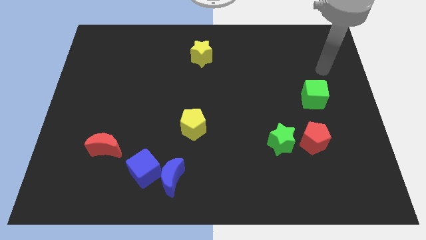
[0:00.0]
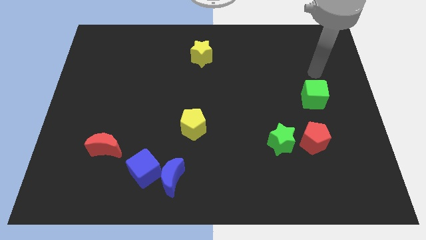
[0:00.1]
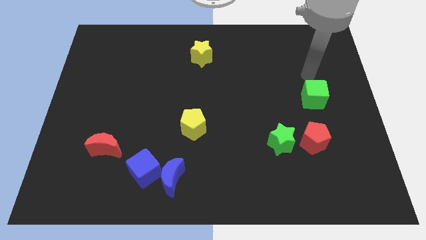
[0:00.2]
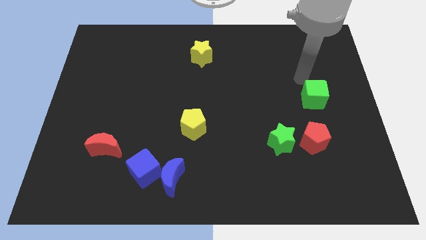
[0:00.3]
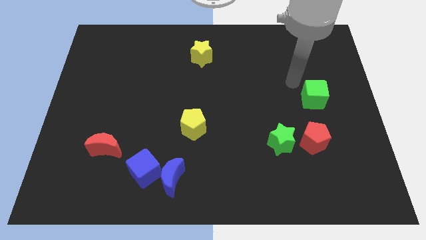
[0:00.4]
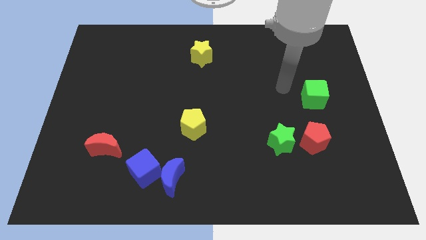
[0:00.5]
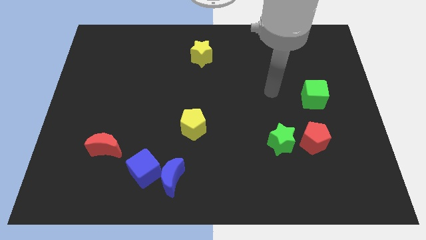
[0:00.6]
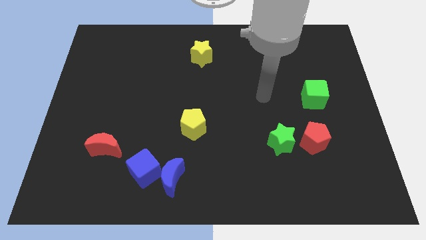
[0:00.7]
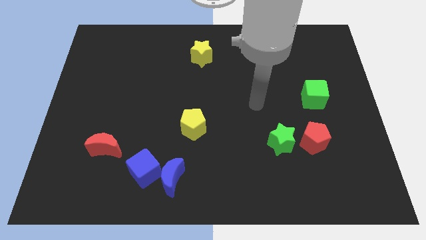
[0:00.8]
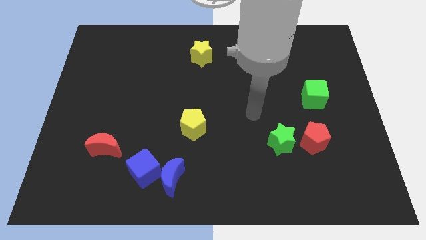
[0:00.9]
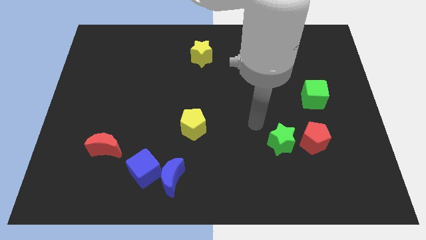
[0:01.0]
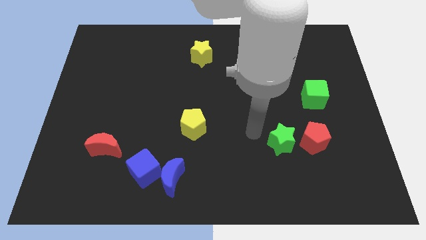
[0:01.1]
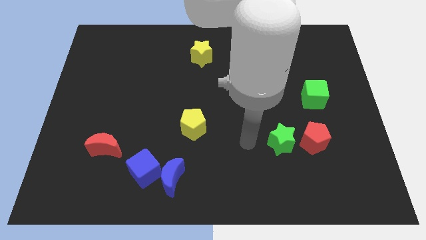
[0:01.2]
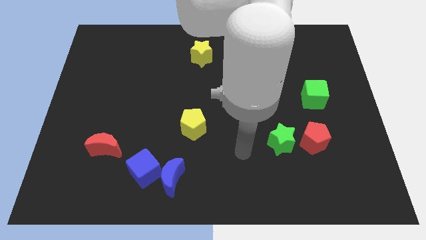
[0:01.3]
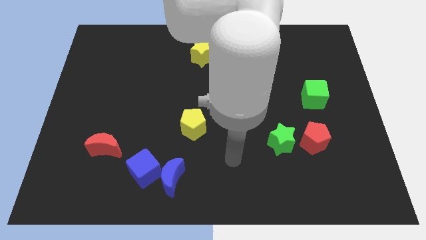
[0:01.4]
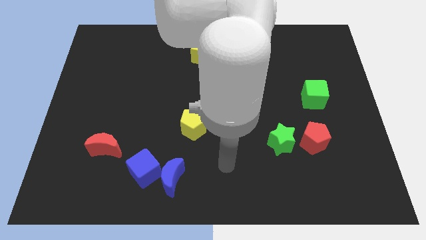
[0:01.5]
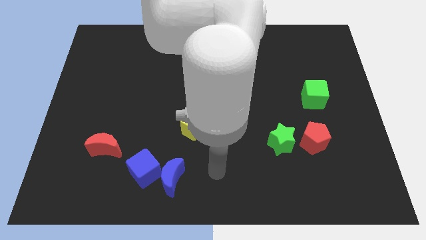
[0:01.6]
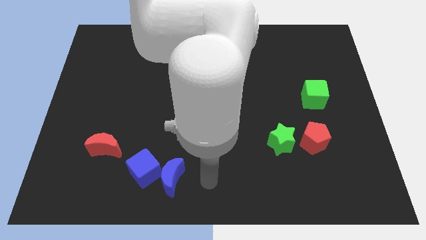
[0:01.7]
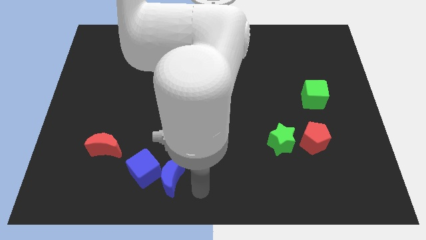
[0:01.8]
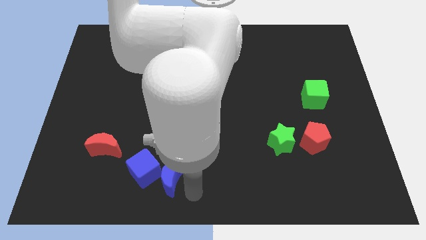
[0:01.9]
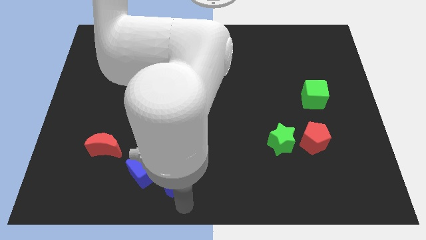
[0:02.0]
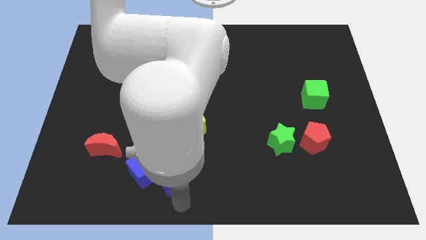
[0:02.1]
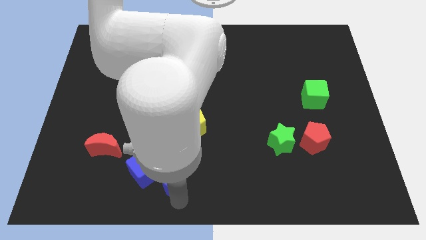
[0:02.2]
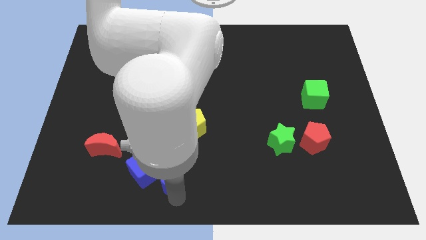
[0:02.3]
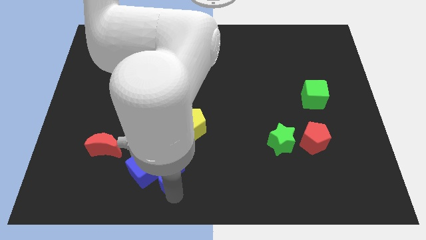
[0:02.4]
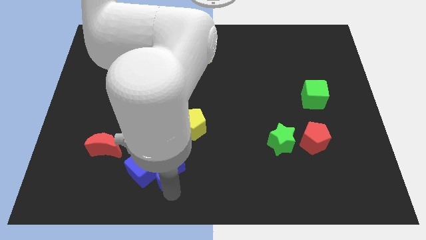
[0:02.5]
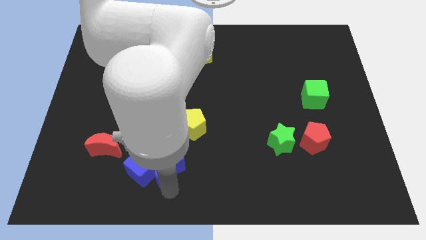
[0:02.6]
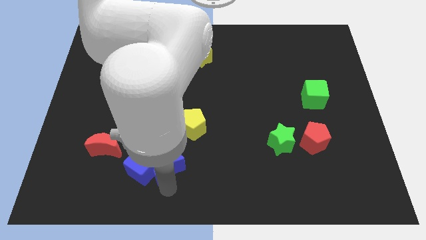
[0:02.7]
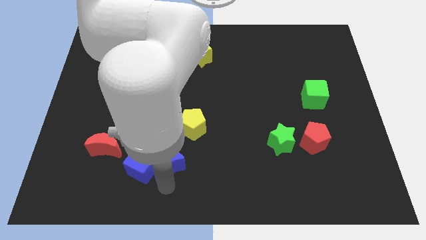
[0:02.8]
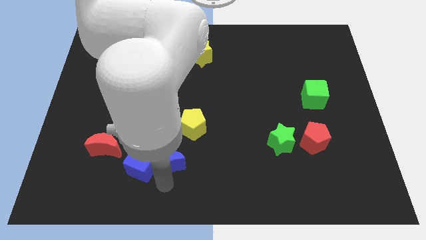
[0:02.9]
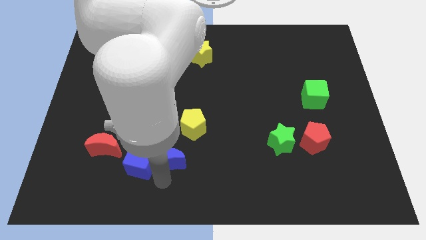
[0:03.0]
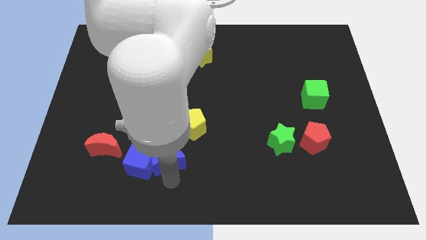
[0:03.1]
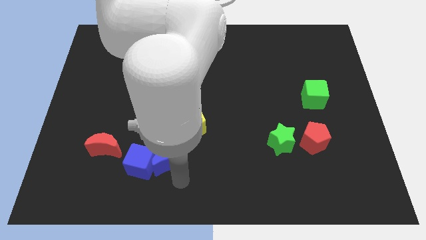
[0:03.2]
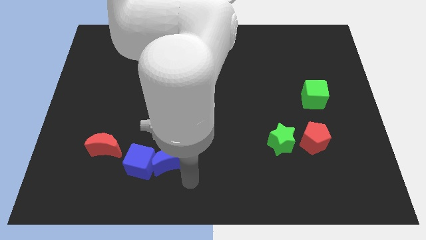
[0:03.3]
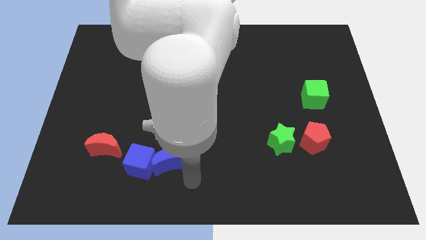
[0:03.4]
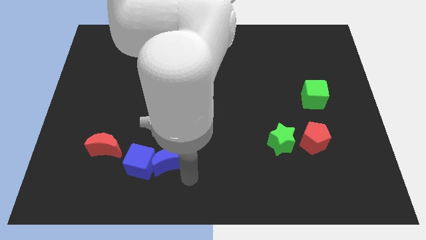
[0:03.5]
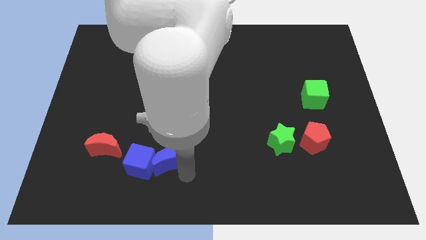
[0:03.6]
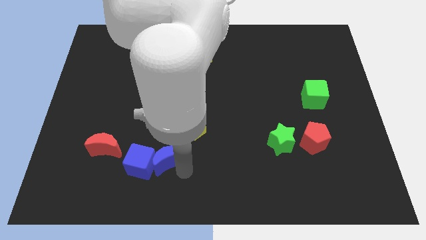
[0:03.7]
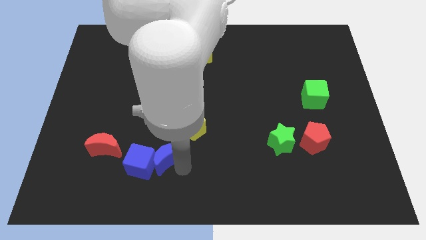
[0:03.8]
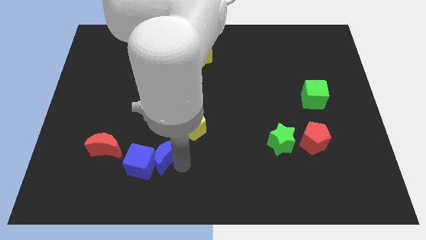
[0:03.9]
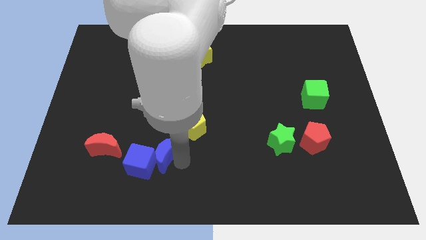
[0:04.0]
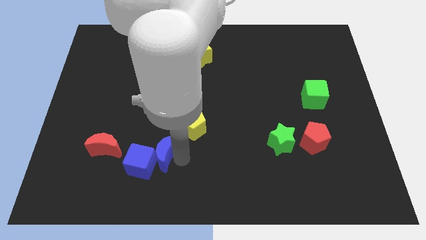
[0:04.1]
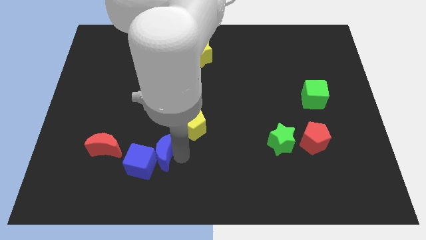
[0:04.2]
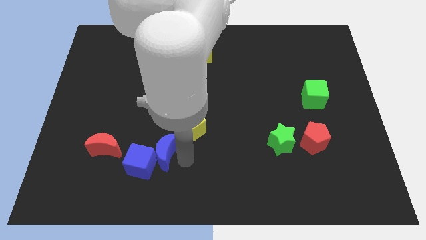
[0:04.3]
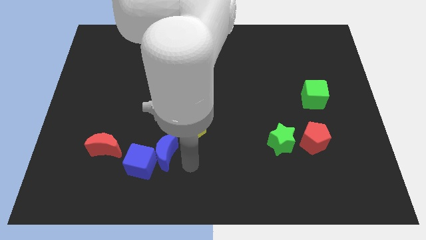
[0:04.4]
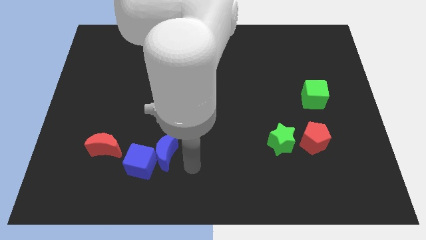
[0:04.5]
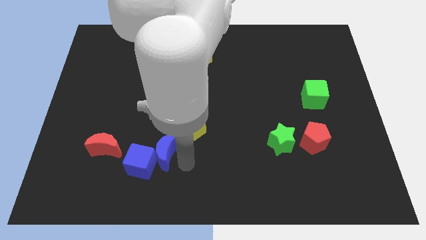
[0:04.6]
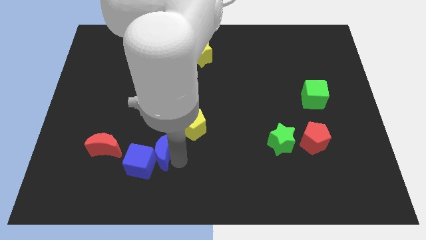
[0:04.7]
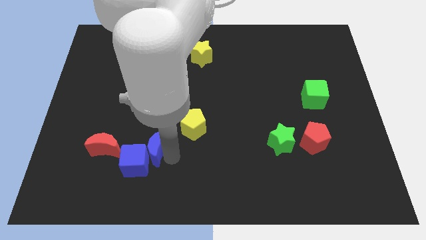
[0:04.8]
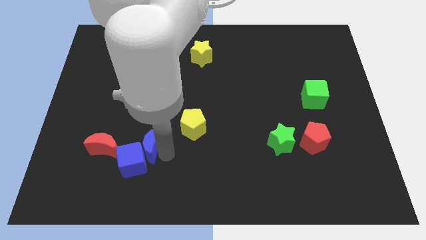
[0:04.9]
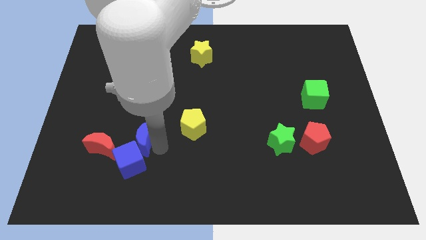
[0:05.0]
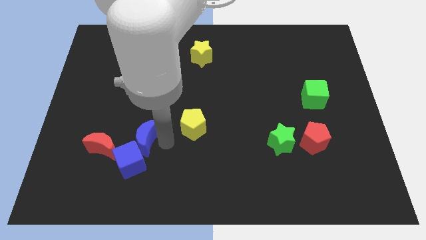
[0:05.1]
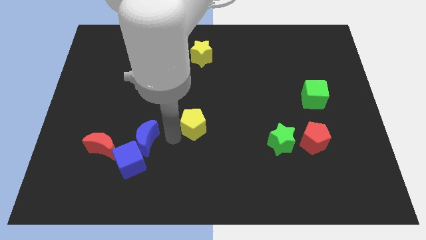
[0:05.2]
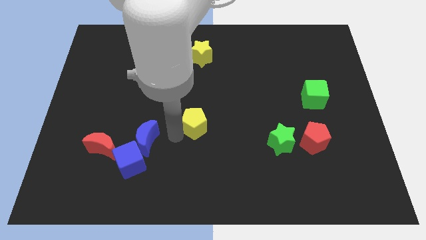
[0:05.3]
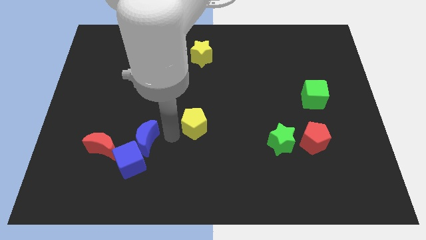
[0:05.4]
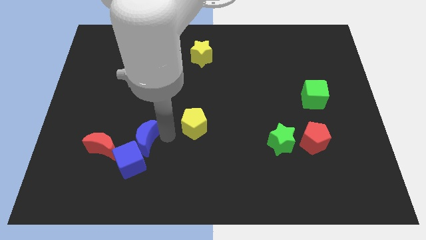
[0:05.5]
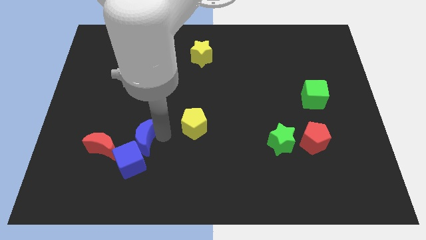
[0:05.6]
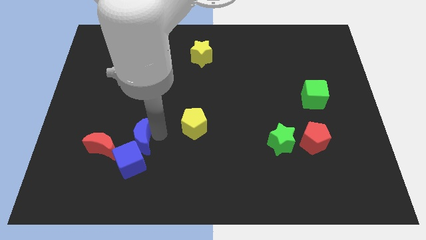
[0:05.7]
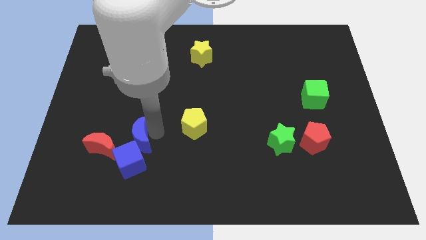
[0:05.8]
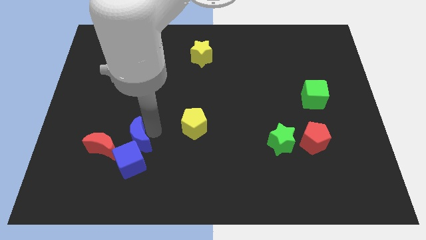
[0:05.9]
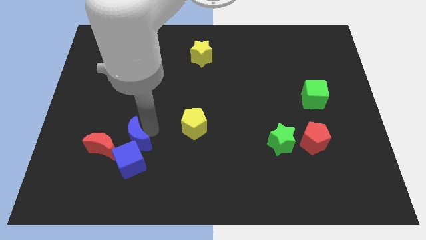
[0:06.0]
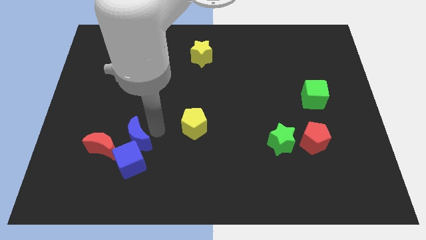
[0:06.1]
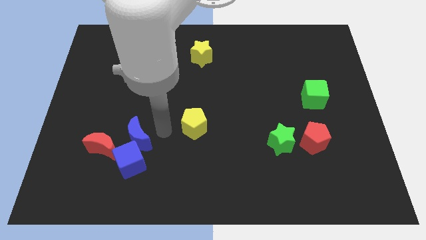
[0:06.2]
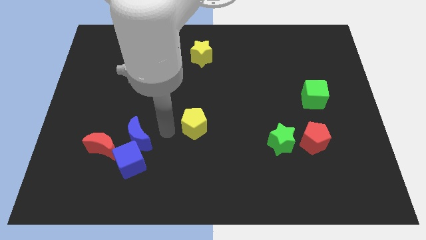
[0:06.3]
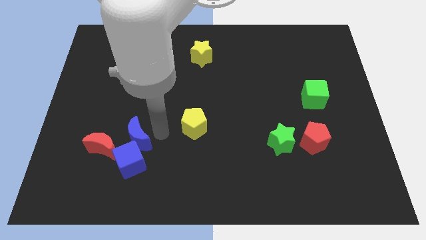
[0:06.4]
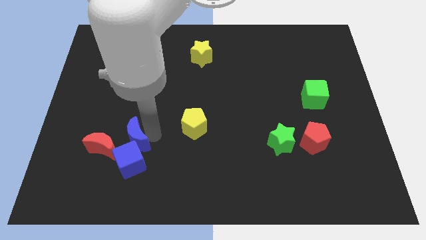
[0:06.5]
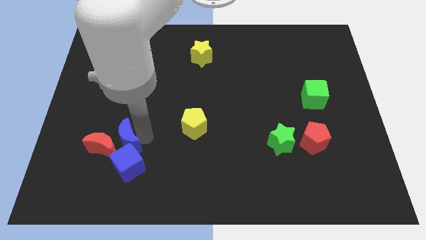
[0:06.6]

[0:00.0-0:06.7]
move the blue moon close to the red moon

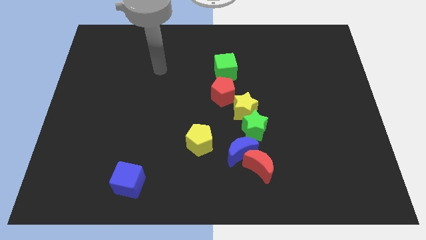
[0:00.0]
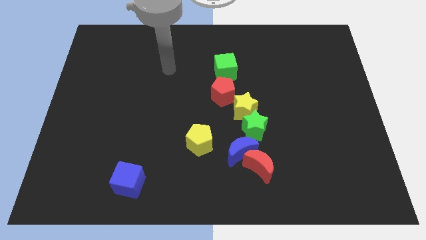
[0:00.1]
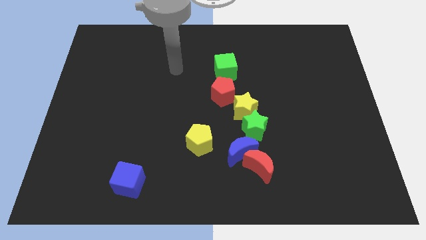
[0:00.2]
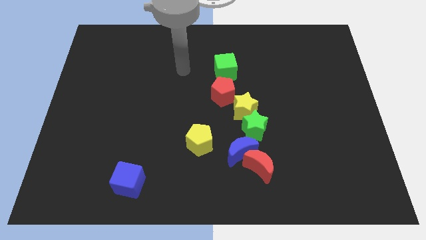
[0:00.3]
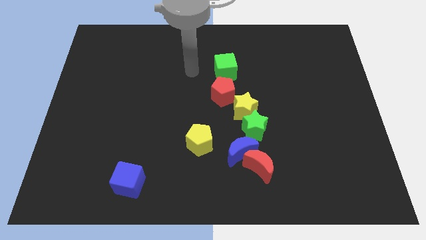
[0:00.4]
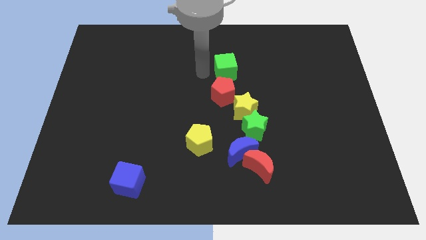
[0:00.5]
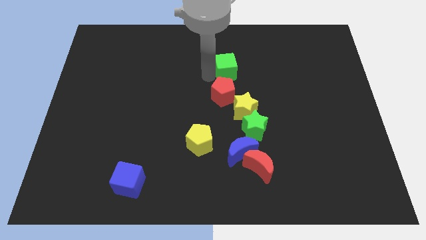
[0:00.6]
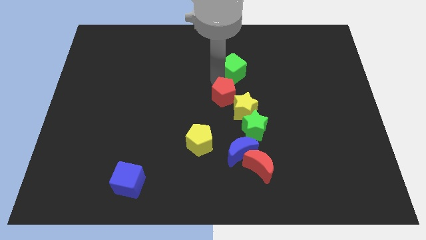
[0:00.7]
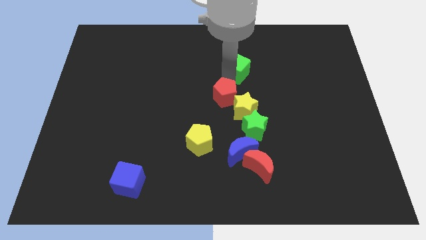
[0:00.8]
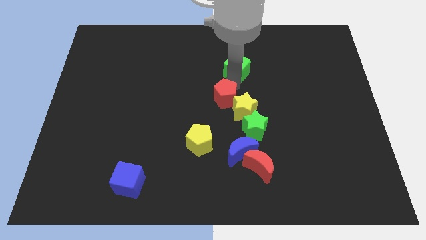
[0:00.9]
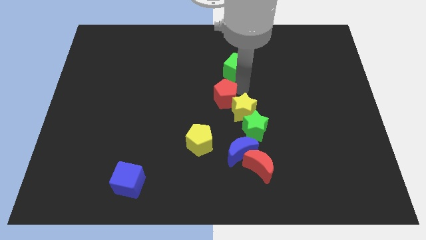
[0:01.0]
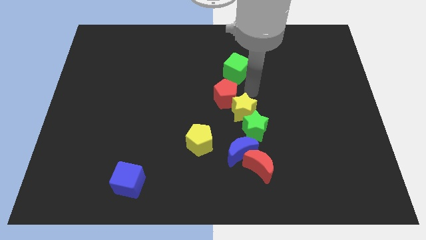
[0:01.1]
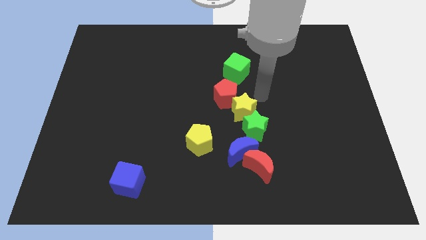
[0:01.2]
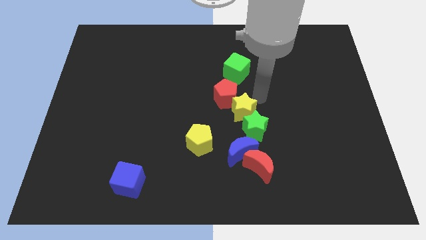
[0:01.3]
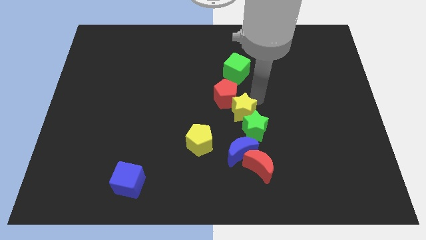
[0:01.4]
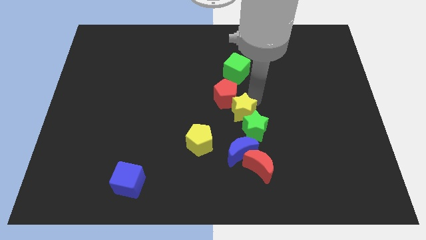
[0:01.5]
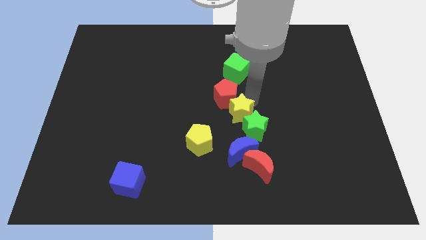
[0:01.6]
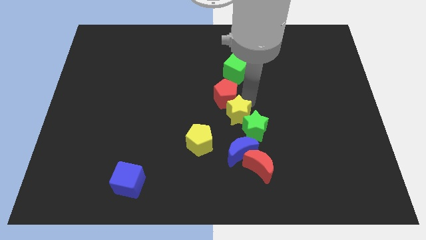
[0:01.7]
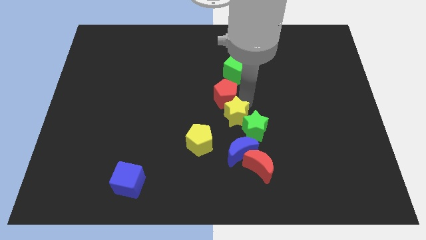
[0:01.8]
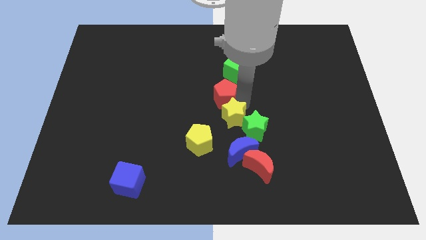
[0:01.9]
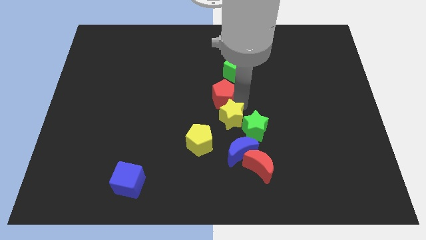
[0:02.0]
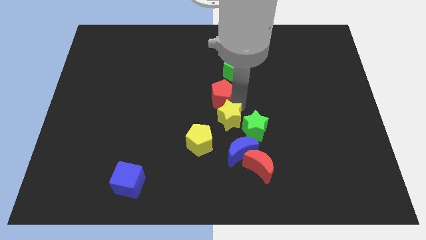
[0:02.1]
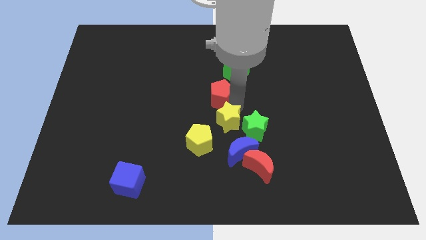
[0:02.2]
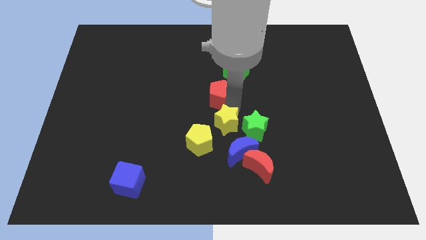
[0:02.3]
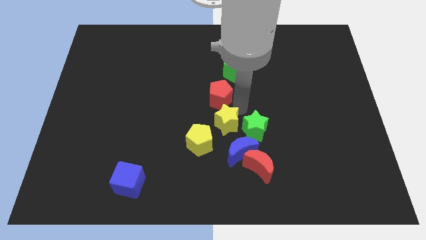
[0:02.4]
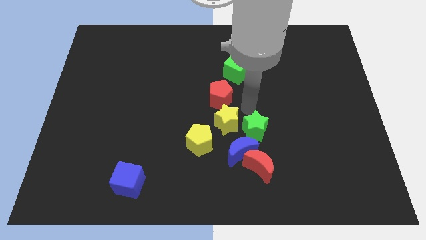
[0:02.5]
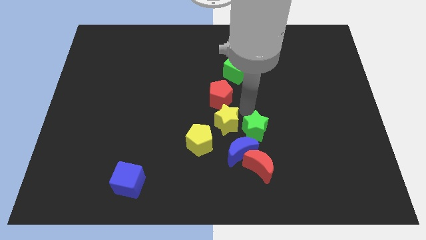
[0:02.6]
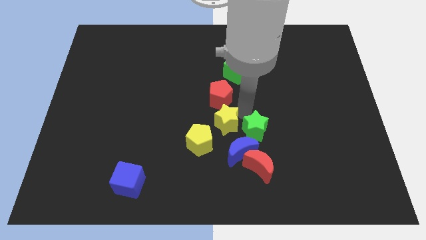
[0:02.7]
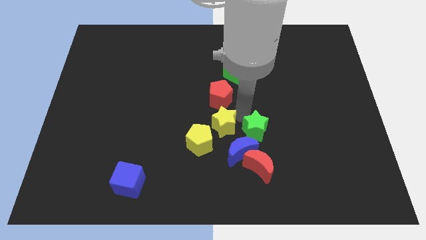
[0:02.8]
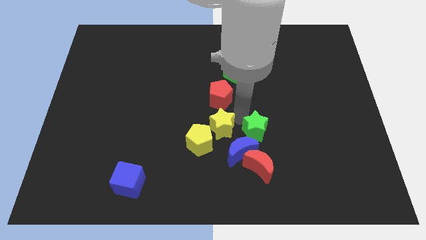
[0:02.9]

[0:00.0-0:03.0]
move the yellow star close to the yellow pentagon
